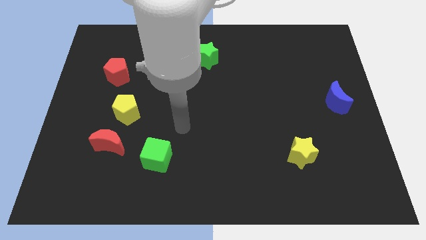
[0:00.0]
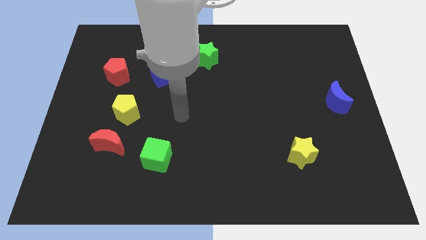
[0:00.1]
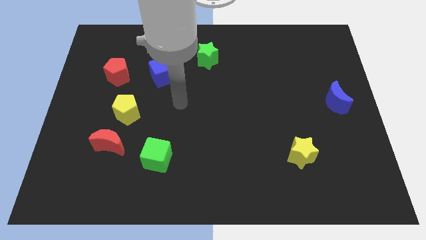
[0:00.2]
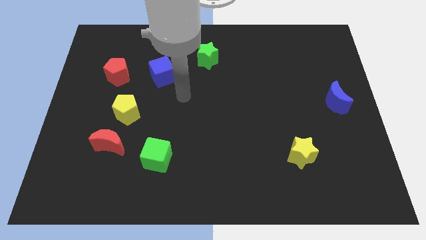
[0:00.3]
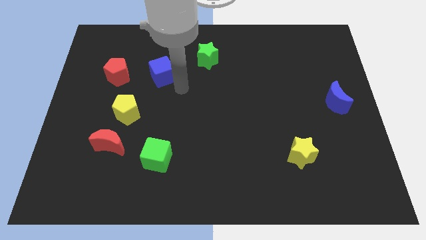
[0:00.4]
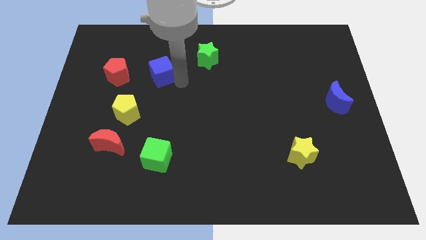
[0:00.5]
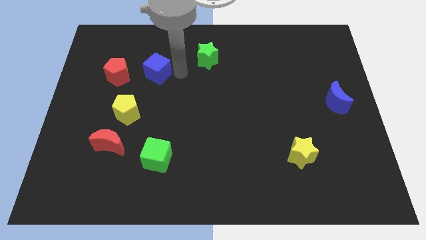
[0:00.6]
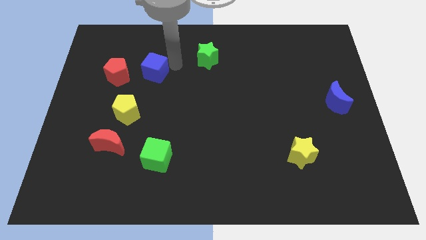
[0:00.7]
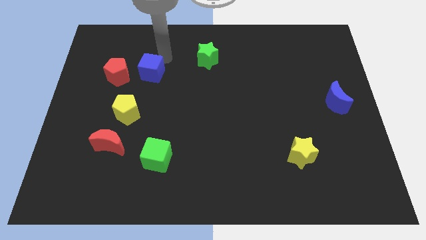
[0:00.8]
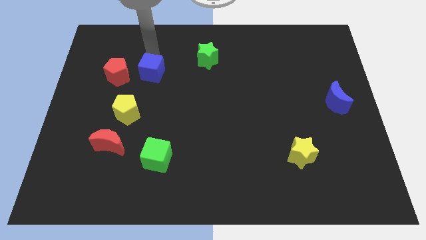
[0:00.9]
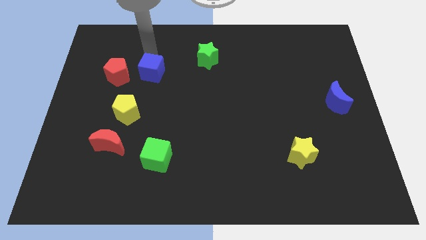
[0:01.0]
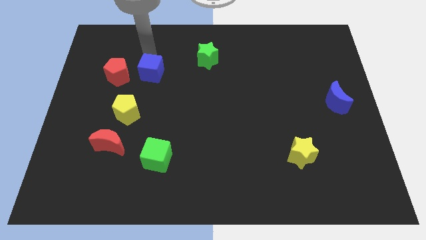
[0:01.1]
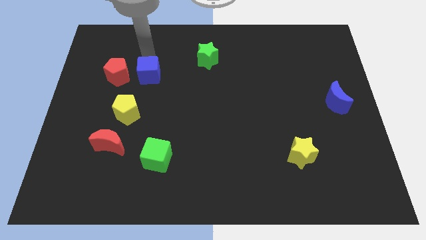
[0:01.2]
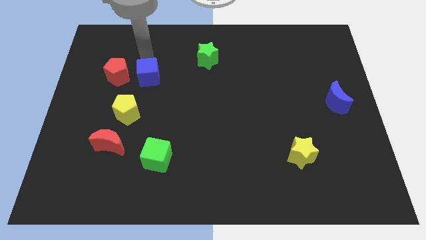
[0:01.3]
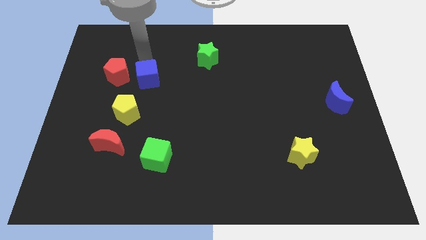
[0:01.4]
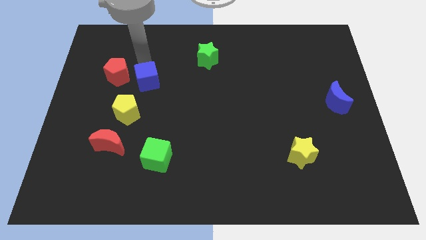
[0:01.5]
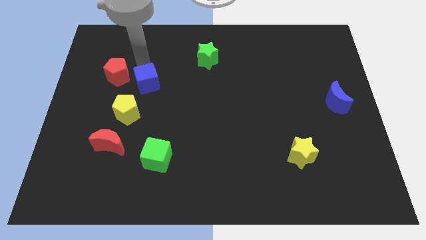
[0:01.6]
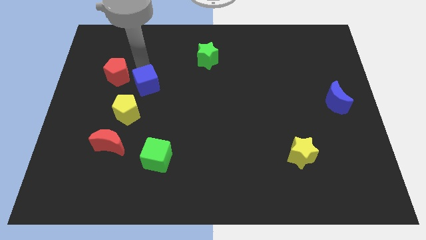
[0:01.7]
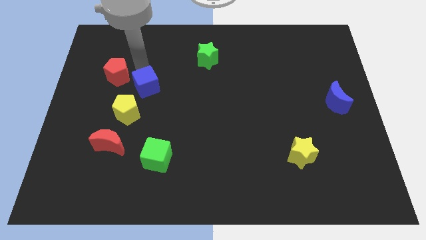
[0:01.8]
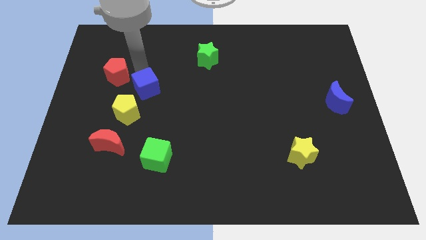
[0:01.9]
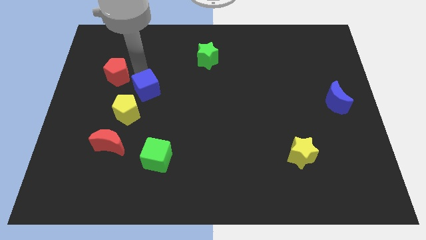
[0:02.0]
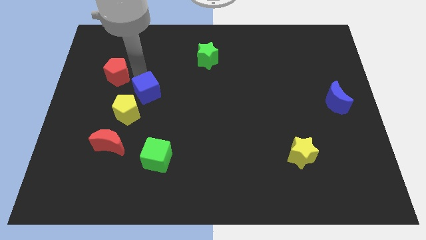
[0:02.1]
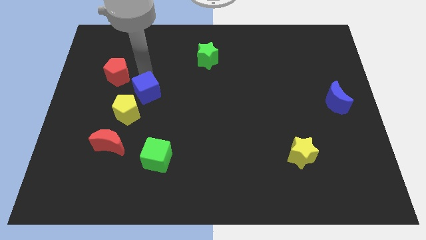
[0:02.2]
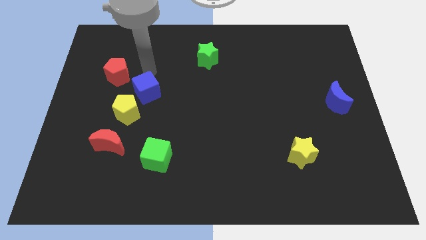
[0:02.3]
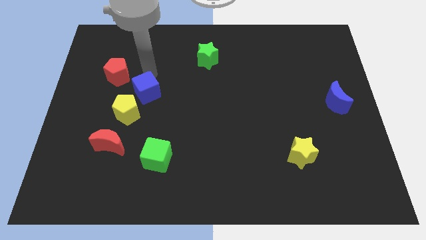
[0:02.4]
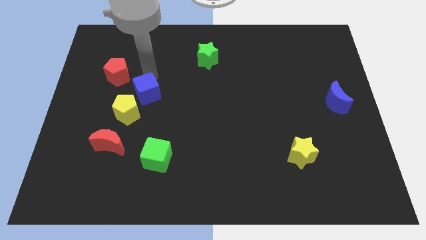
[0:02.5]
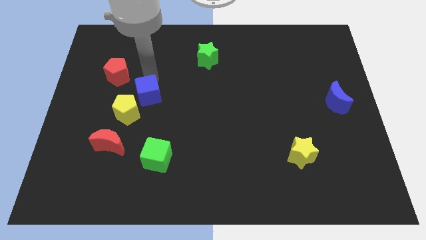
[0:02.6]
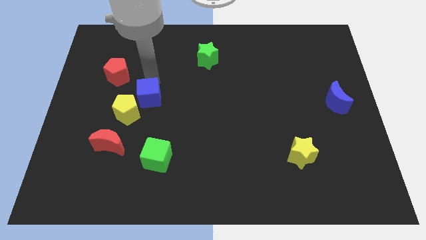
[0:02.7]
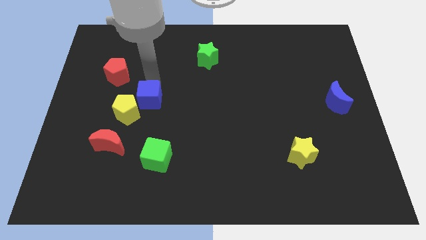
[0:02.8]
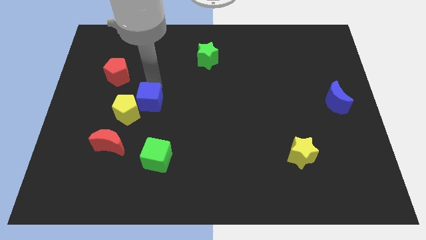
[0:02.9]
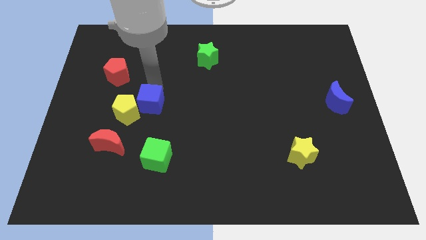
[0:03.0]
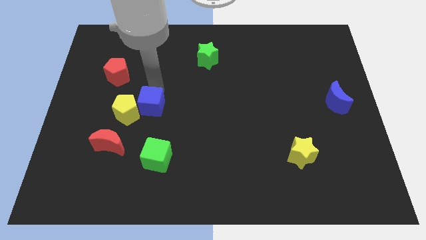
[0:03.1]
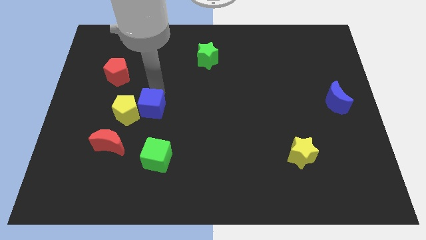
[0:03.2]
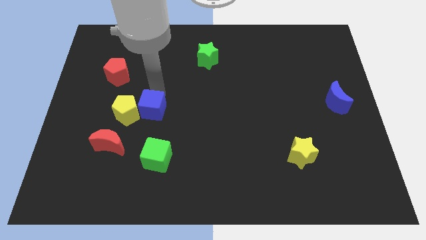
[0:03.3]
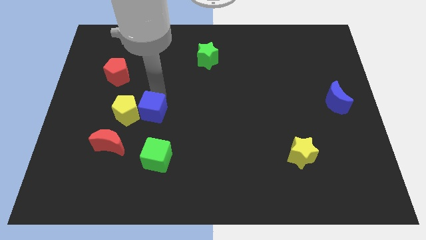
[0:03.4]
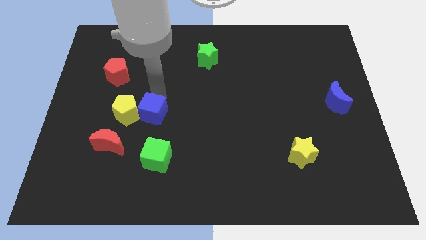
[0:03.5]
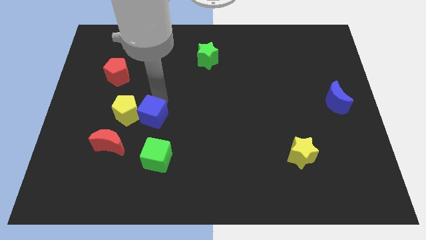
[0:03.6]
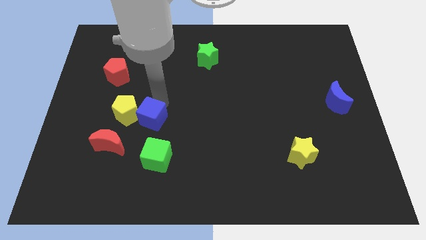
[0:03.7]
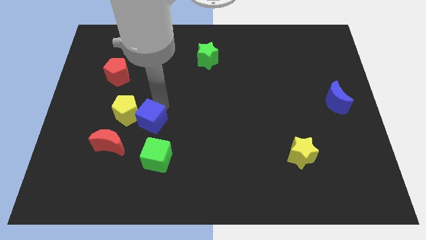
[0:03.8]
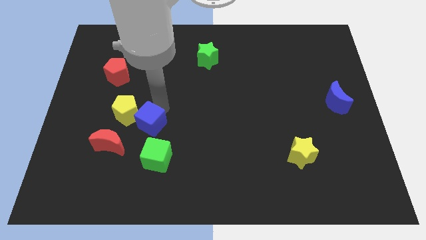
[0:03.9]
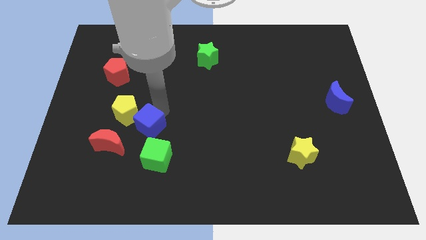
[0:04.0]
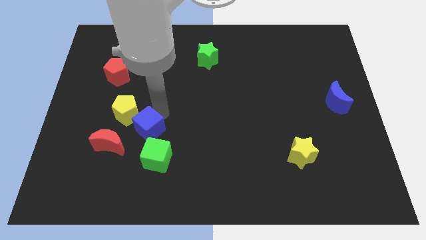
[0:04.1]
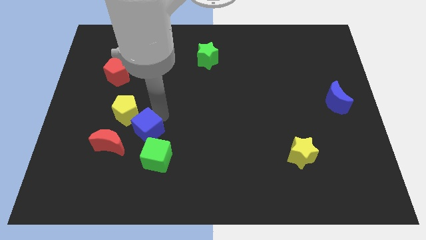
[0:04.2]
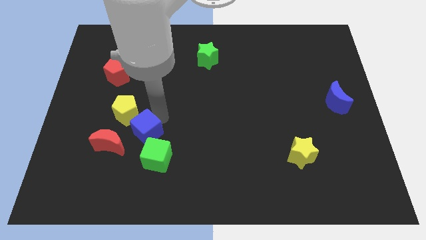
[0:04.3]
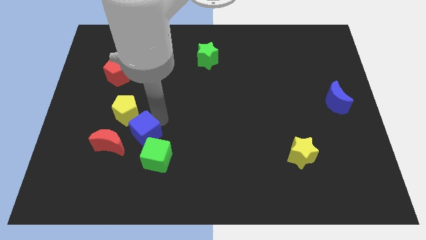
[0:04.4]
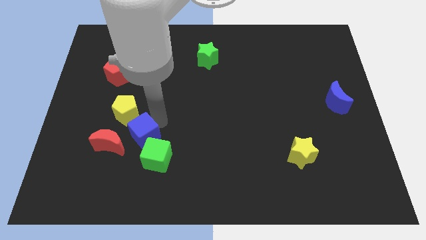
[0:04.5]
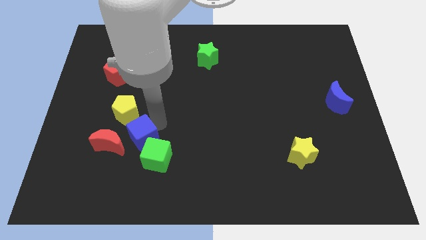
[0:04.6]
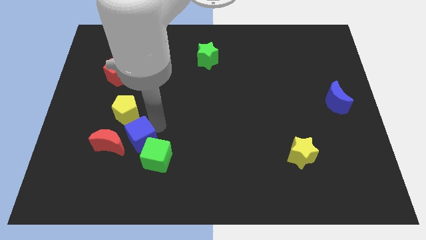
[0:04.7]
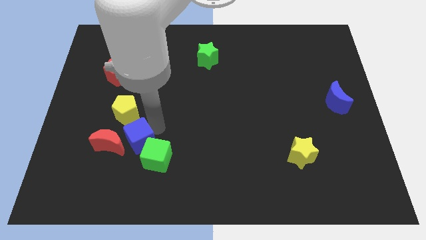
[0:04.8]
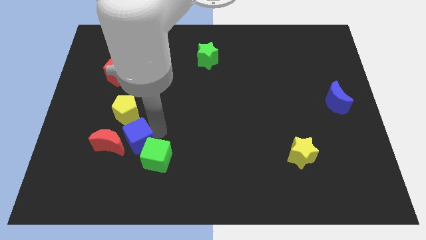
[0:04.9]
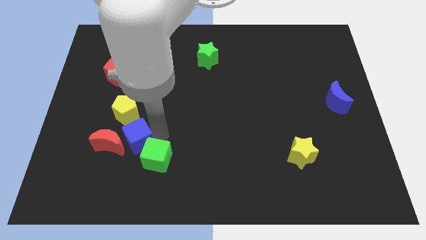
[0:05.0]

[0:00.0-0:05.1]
move the blue cube next to the red moon

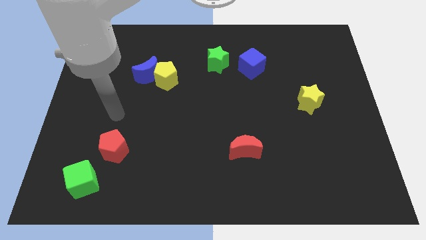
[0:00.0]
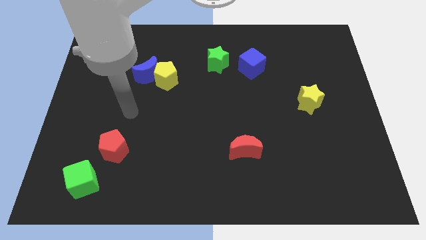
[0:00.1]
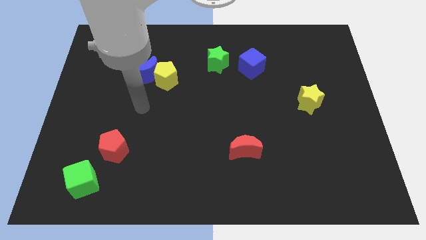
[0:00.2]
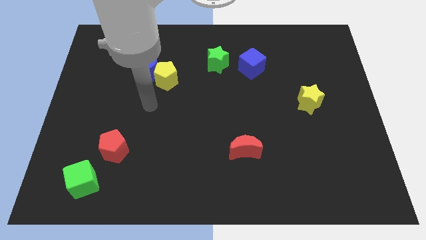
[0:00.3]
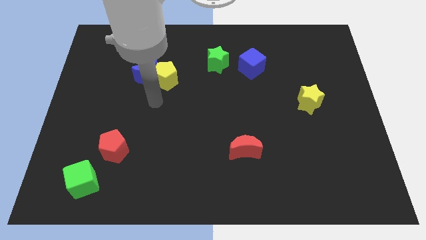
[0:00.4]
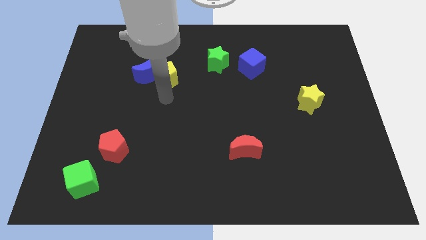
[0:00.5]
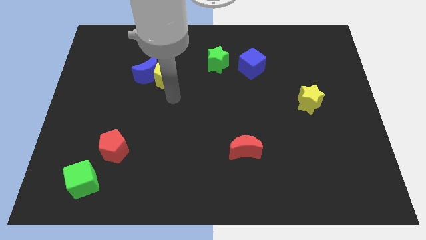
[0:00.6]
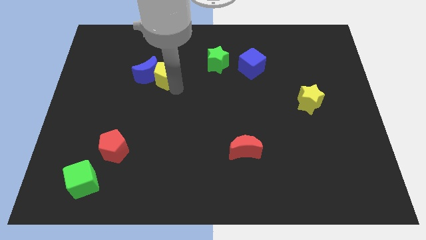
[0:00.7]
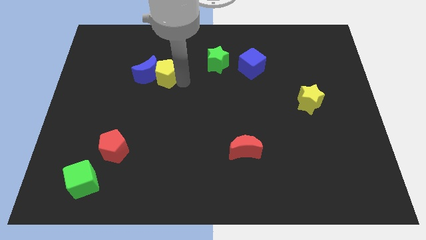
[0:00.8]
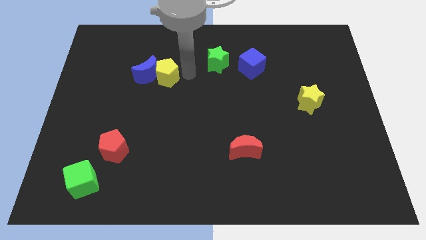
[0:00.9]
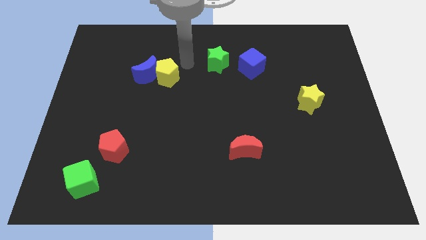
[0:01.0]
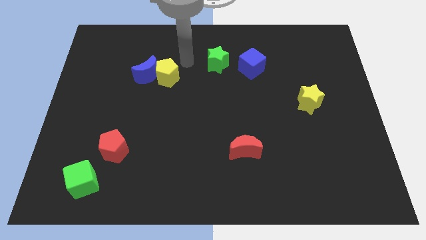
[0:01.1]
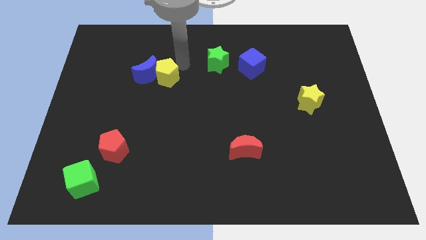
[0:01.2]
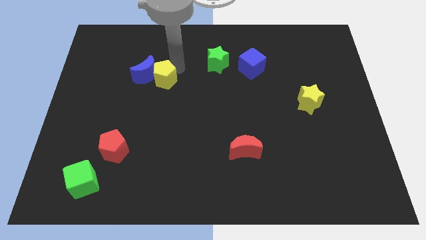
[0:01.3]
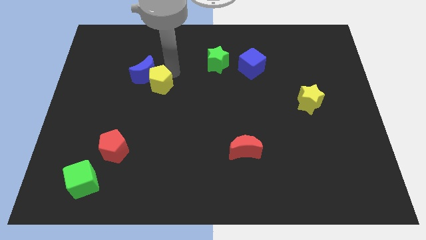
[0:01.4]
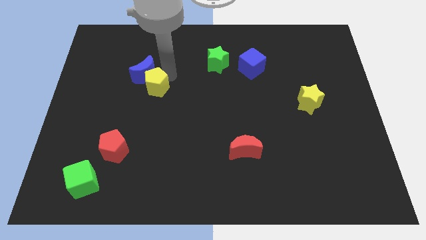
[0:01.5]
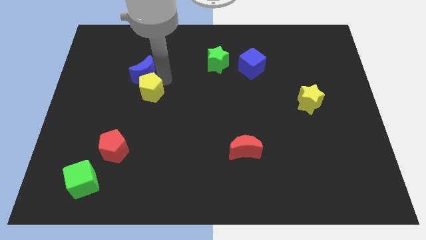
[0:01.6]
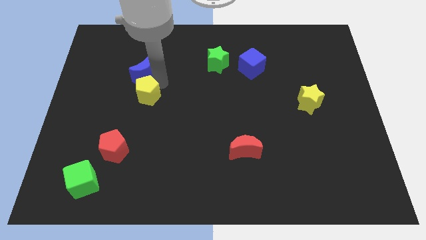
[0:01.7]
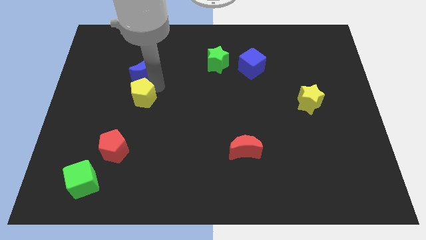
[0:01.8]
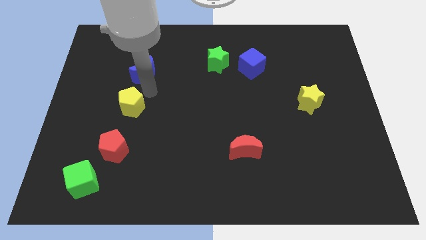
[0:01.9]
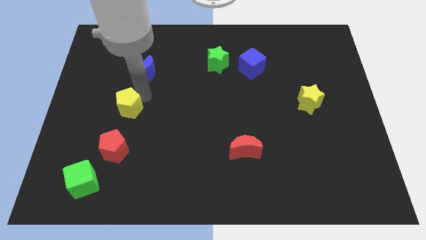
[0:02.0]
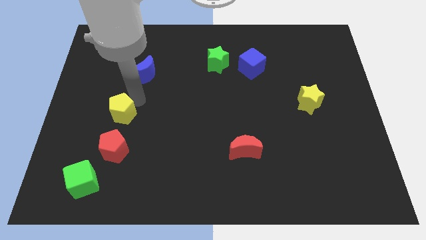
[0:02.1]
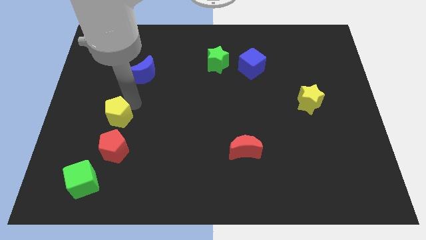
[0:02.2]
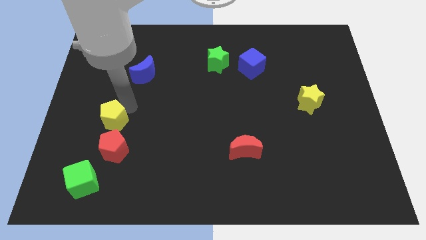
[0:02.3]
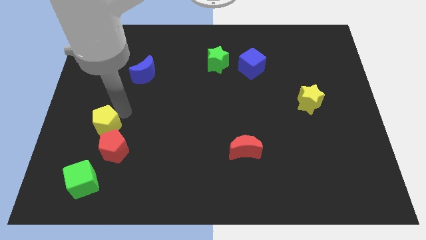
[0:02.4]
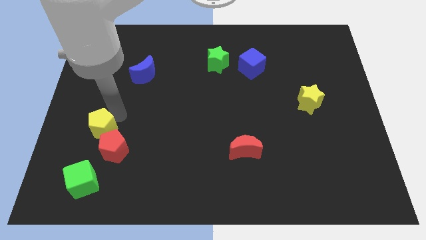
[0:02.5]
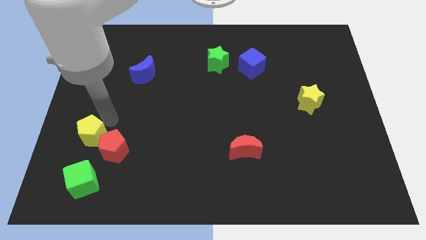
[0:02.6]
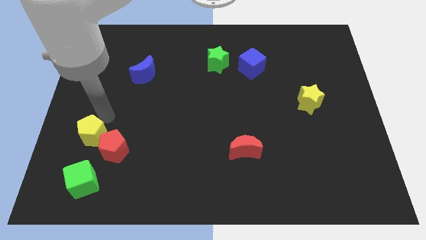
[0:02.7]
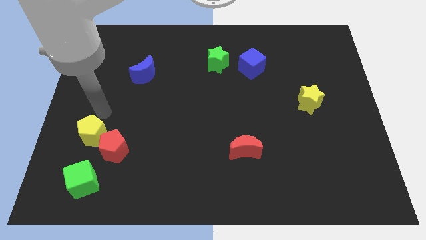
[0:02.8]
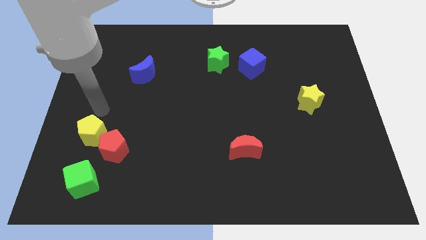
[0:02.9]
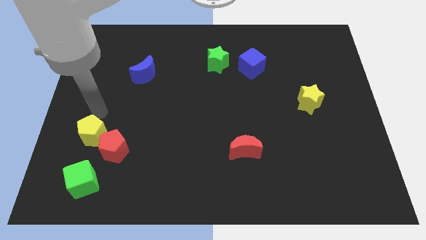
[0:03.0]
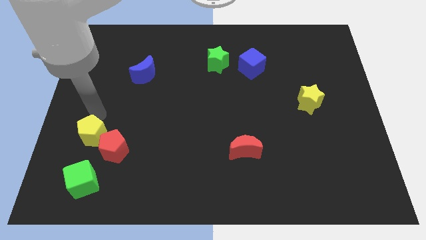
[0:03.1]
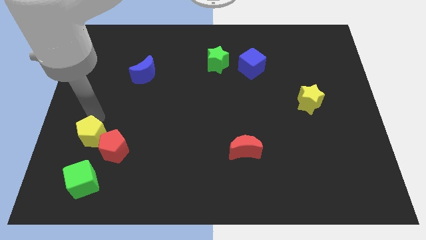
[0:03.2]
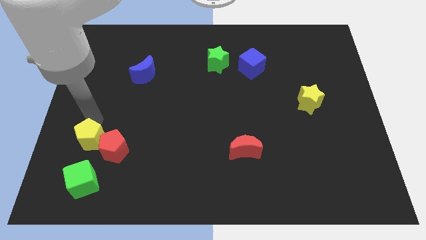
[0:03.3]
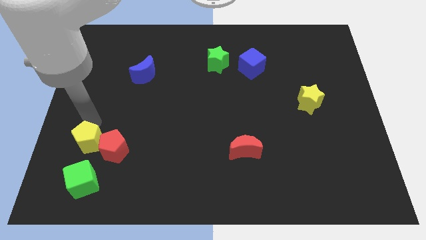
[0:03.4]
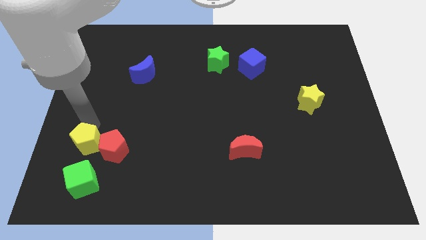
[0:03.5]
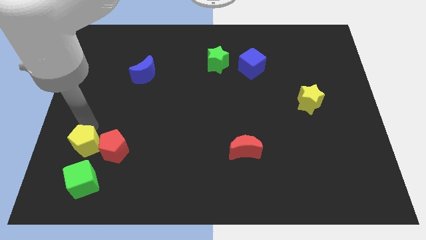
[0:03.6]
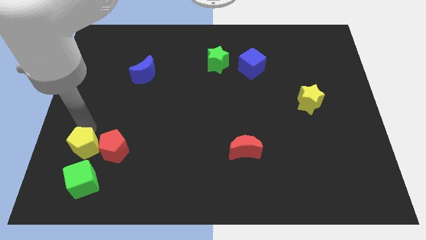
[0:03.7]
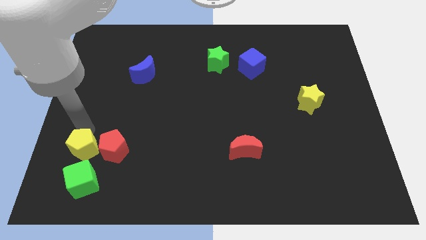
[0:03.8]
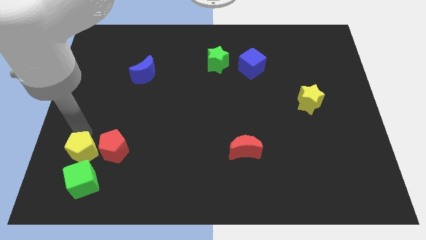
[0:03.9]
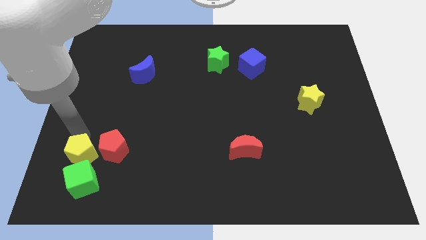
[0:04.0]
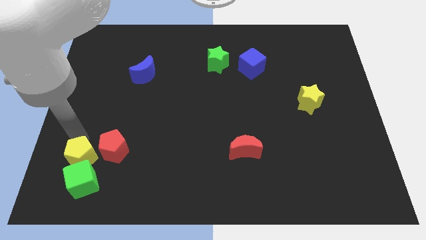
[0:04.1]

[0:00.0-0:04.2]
put the yellow pentagon to the green cube
